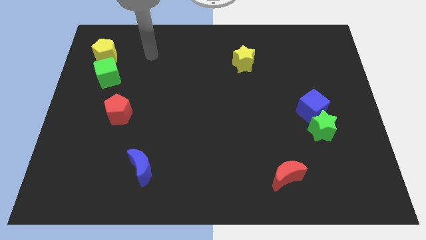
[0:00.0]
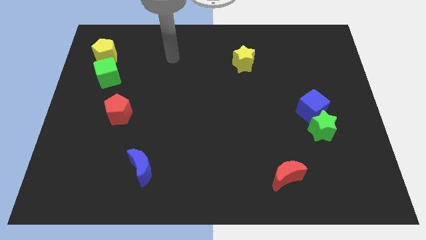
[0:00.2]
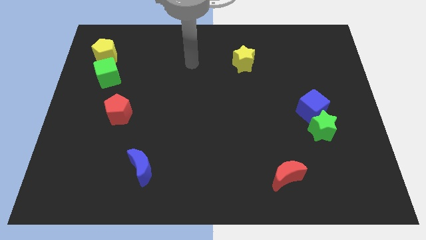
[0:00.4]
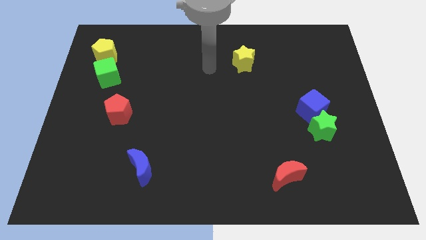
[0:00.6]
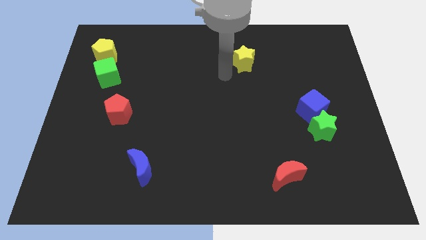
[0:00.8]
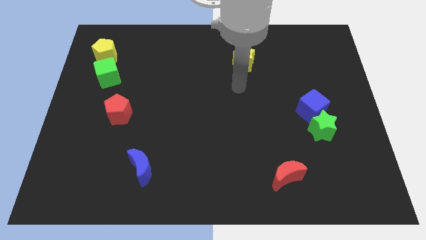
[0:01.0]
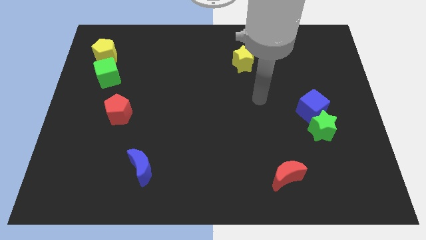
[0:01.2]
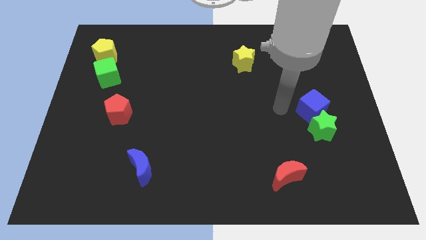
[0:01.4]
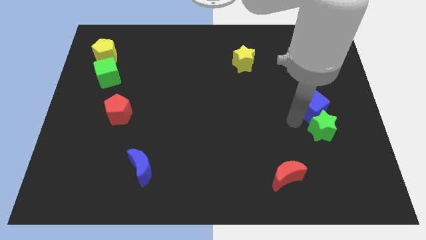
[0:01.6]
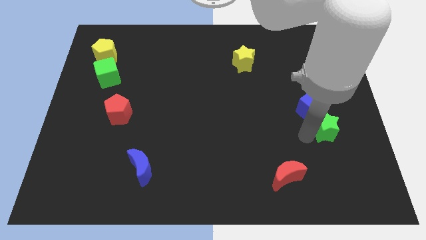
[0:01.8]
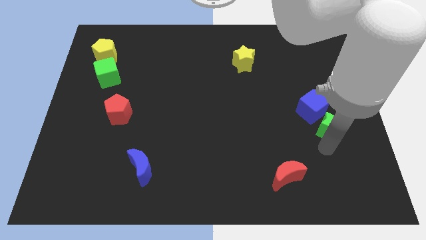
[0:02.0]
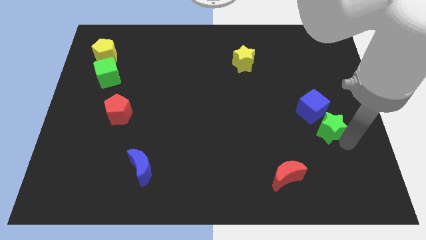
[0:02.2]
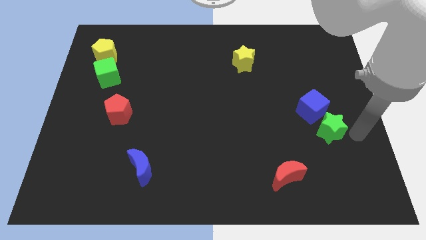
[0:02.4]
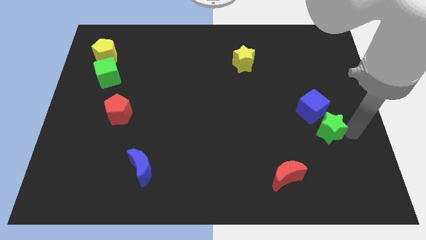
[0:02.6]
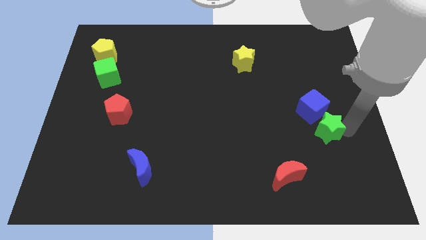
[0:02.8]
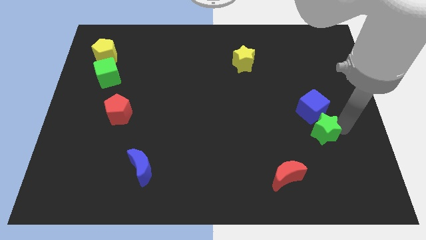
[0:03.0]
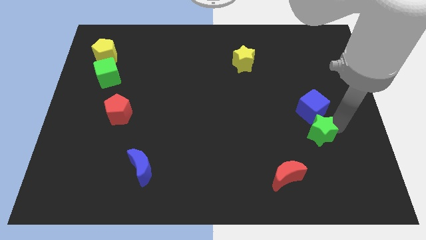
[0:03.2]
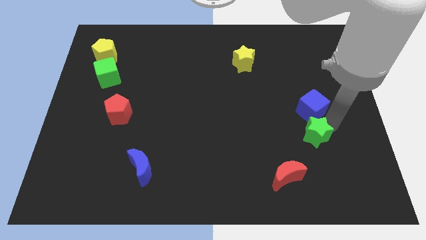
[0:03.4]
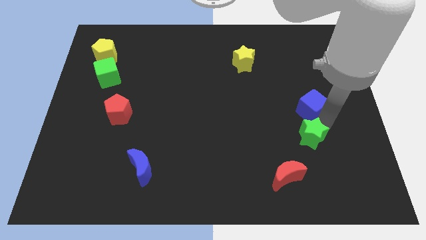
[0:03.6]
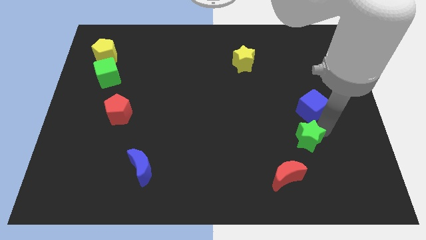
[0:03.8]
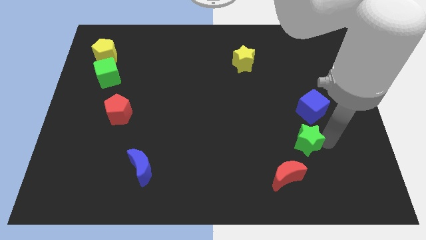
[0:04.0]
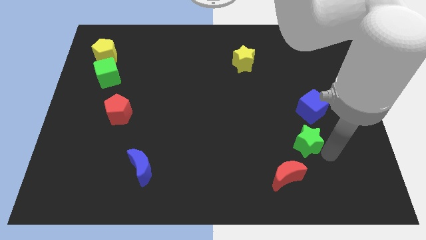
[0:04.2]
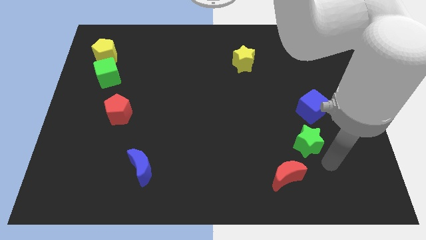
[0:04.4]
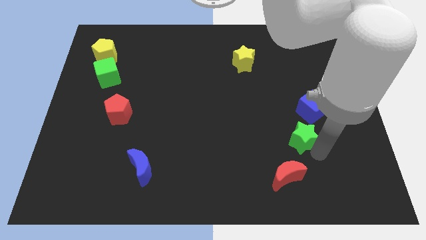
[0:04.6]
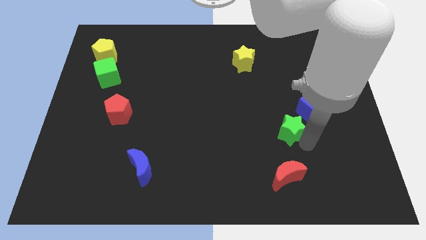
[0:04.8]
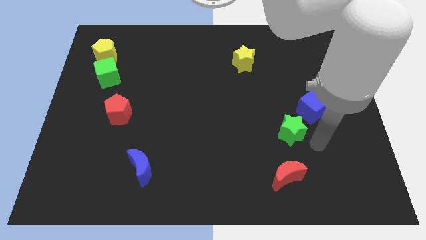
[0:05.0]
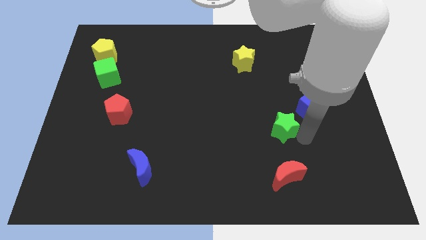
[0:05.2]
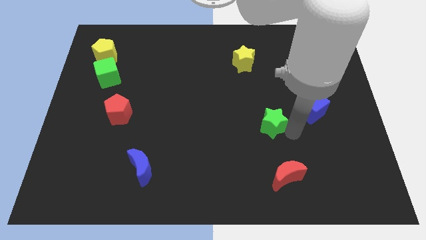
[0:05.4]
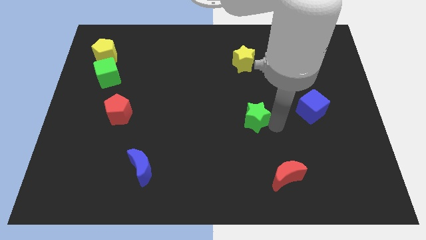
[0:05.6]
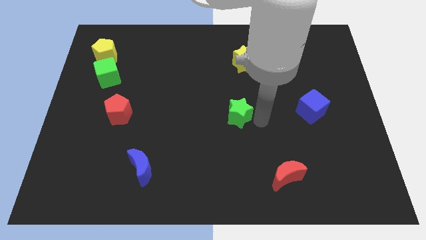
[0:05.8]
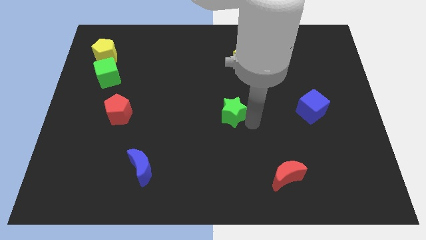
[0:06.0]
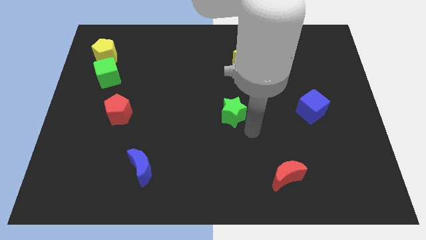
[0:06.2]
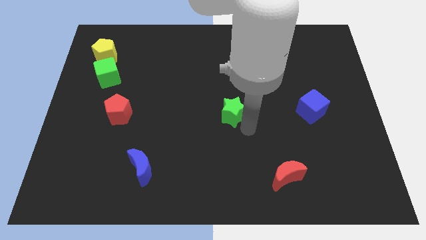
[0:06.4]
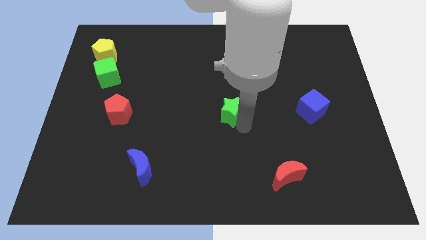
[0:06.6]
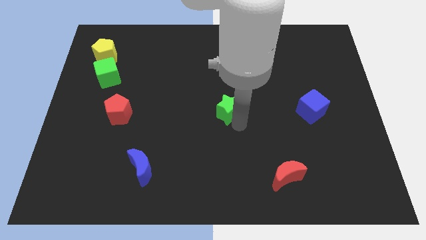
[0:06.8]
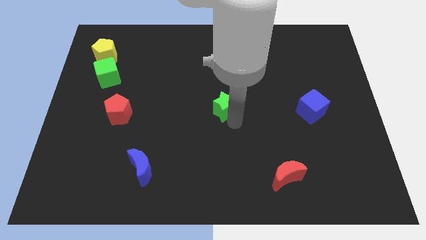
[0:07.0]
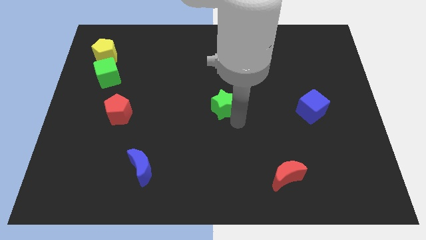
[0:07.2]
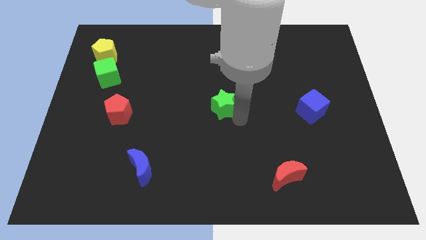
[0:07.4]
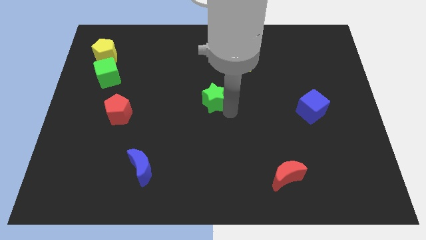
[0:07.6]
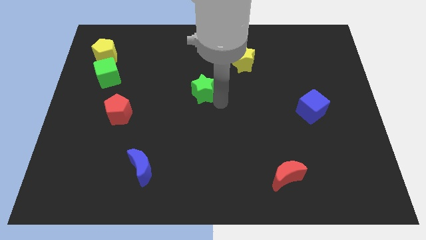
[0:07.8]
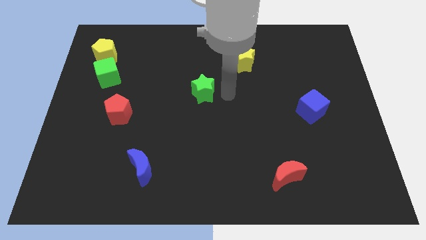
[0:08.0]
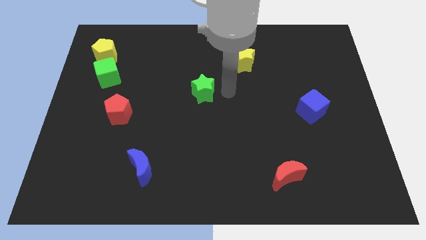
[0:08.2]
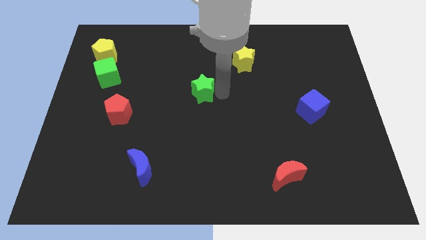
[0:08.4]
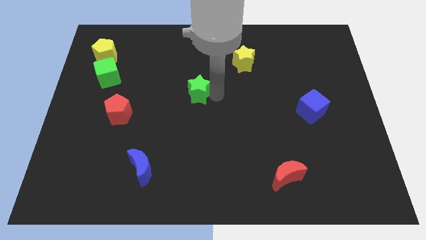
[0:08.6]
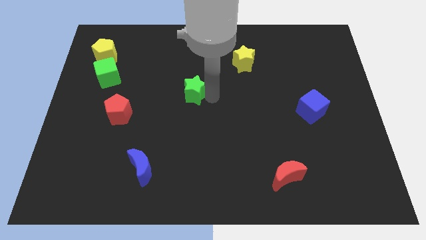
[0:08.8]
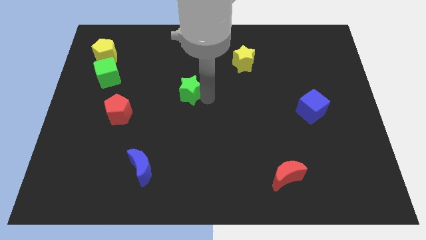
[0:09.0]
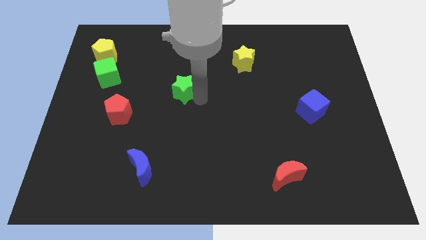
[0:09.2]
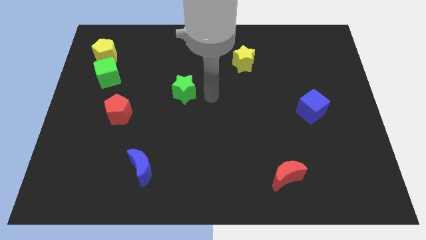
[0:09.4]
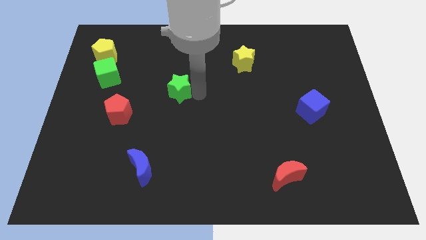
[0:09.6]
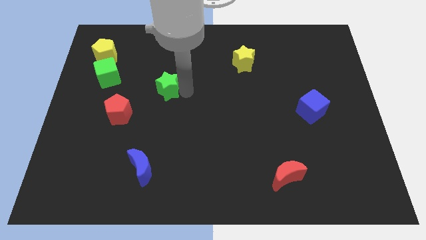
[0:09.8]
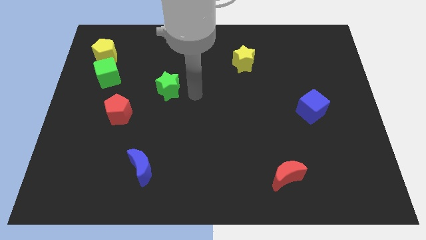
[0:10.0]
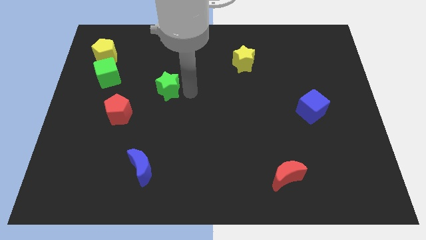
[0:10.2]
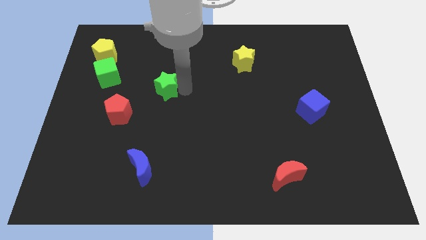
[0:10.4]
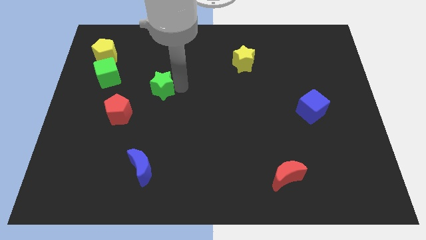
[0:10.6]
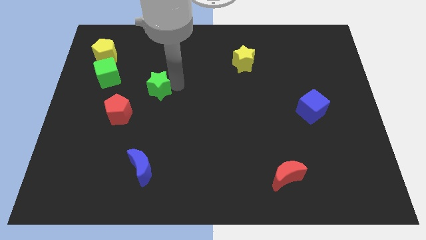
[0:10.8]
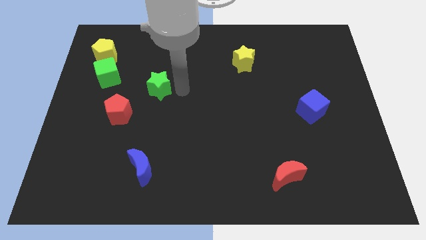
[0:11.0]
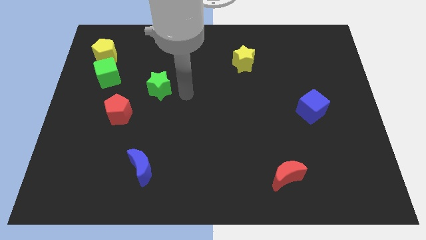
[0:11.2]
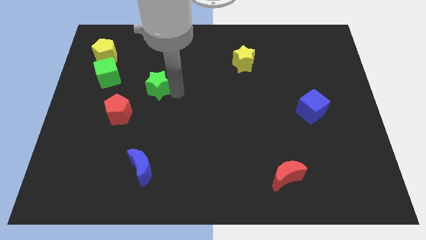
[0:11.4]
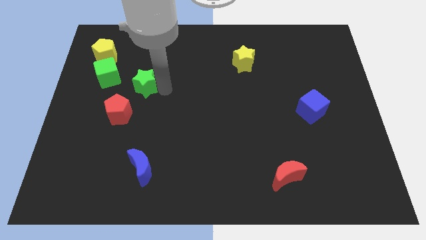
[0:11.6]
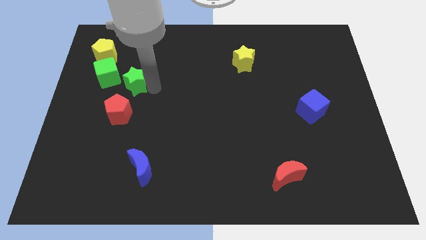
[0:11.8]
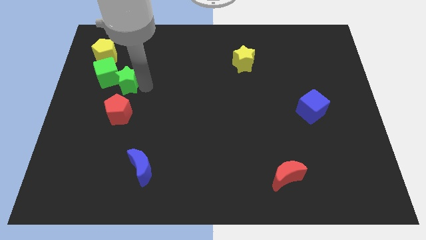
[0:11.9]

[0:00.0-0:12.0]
move the green star next to the green cube

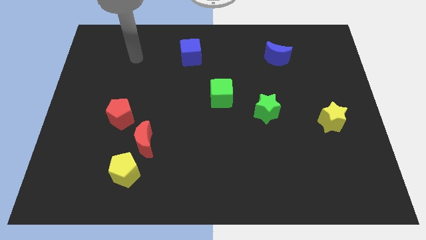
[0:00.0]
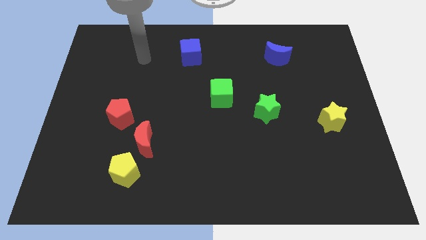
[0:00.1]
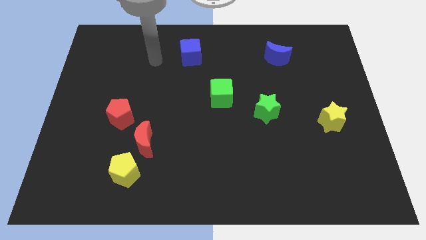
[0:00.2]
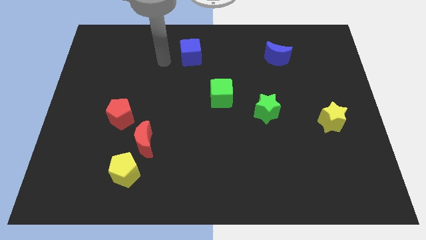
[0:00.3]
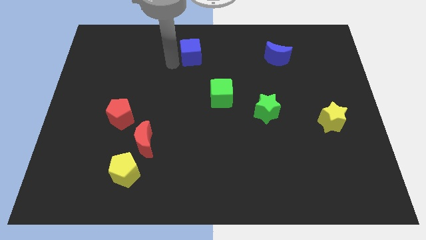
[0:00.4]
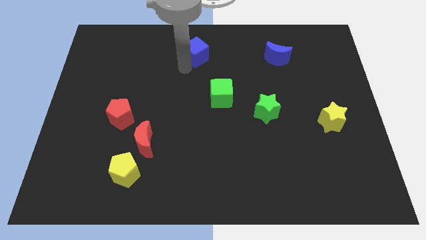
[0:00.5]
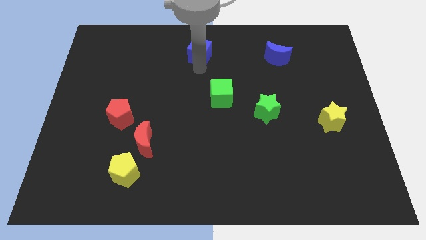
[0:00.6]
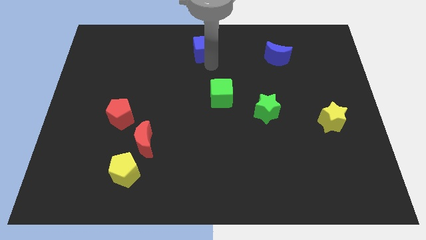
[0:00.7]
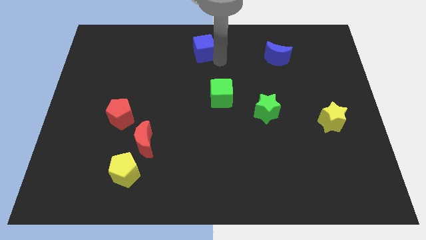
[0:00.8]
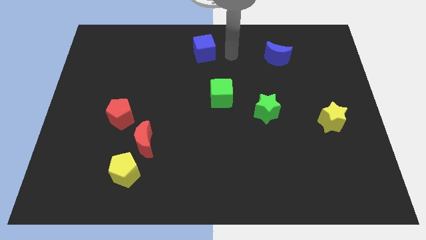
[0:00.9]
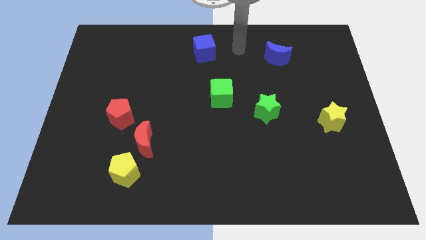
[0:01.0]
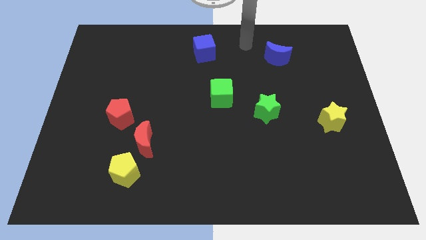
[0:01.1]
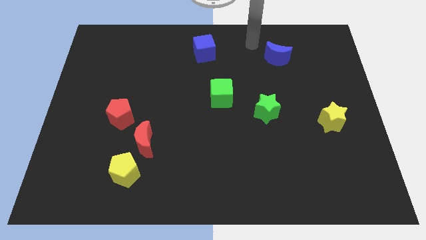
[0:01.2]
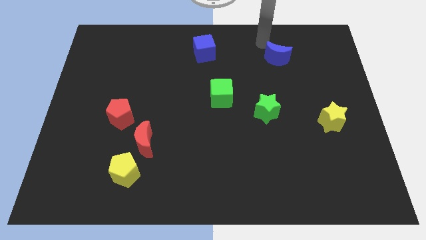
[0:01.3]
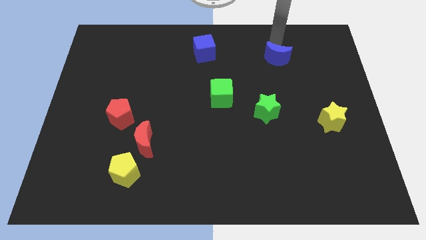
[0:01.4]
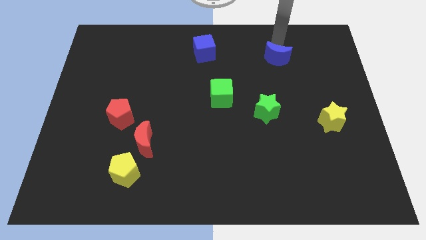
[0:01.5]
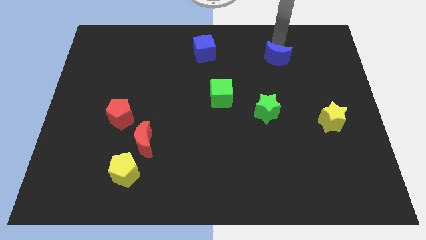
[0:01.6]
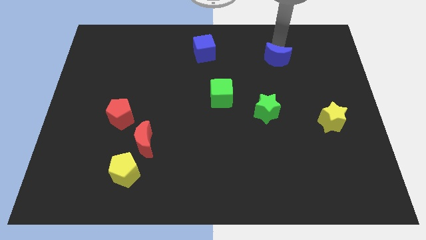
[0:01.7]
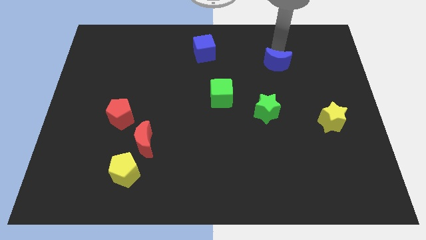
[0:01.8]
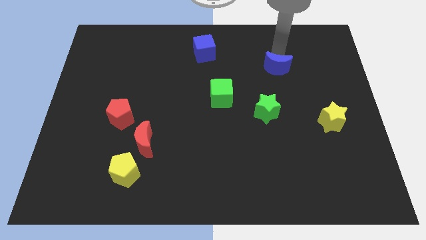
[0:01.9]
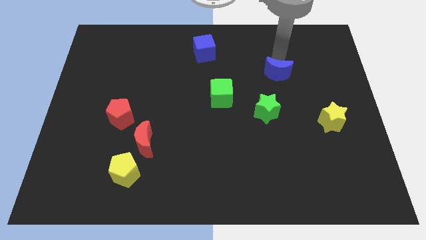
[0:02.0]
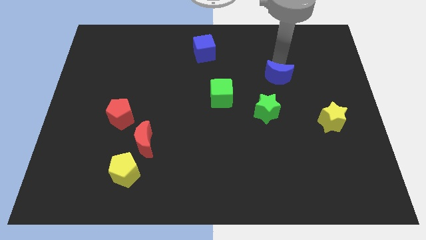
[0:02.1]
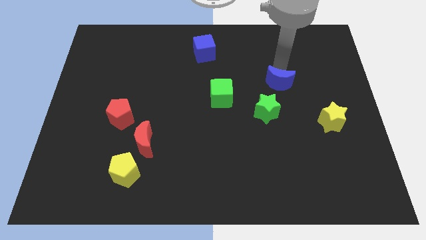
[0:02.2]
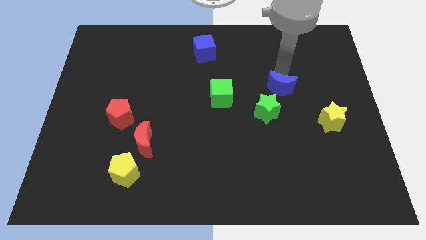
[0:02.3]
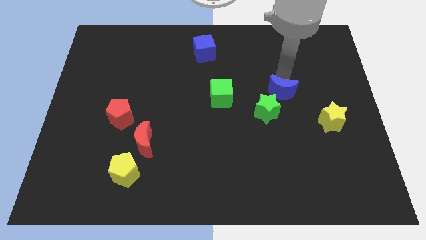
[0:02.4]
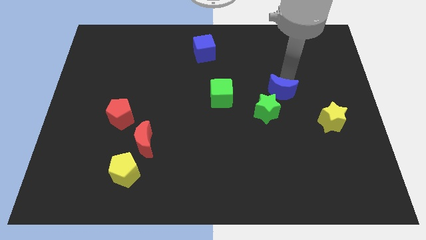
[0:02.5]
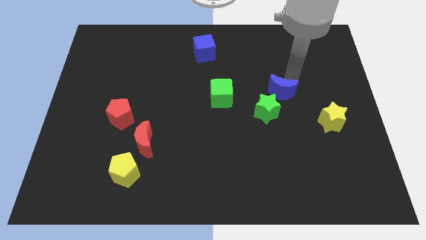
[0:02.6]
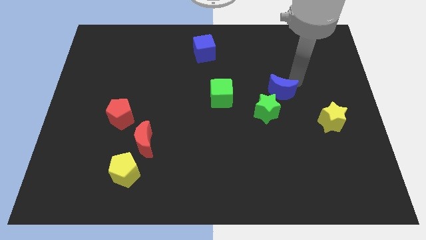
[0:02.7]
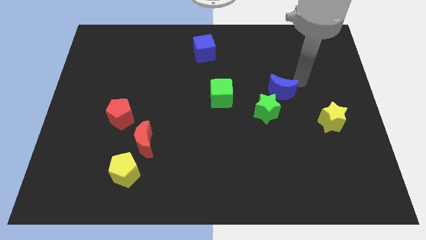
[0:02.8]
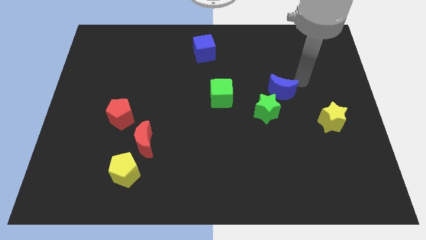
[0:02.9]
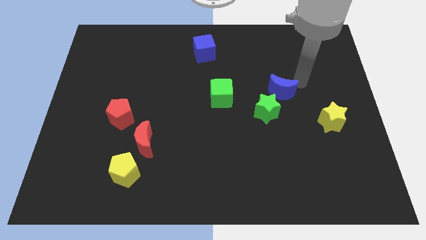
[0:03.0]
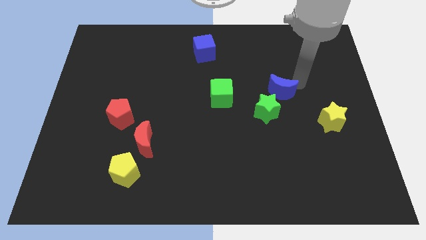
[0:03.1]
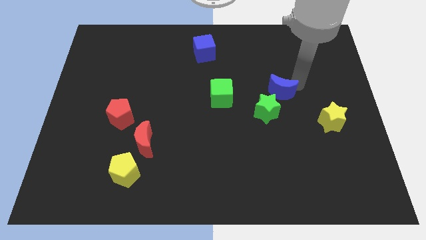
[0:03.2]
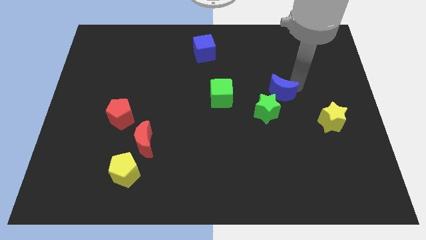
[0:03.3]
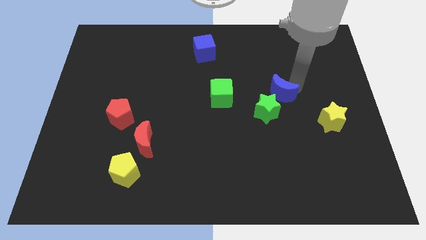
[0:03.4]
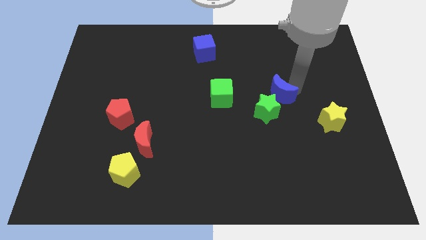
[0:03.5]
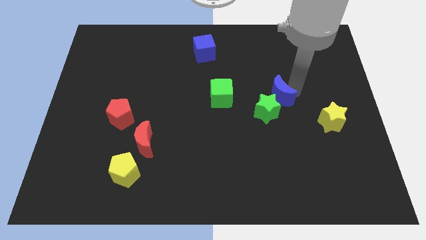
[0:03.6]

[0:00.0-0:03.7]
move the blue moon close to the green star
